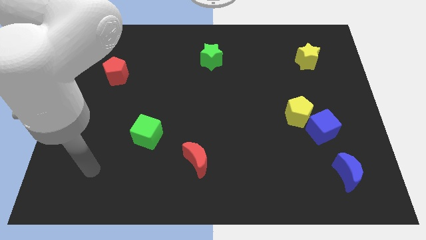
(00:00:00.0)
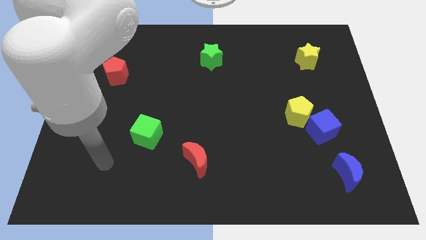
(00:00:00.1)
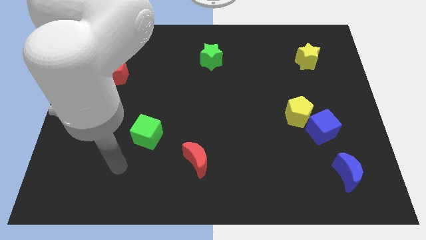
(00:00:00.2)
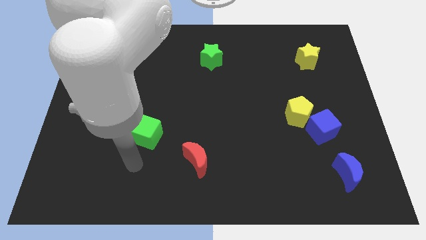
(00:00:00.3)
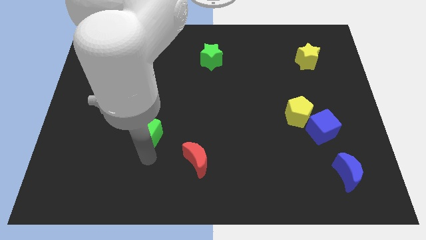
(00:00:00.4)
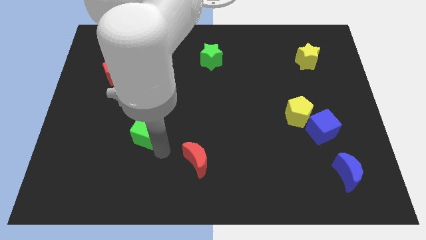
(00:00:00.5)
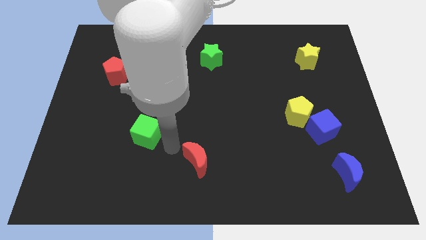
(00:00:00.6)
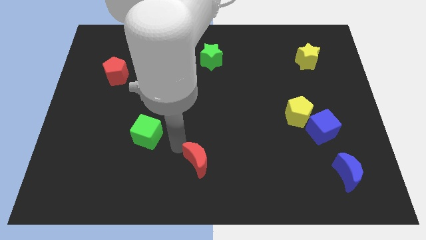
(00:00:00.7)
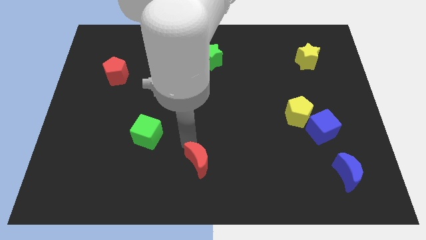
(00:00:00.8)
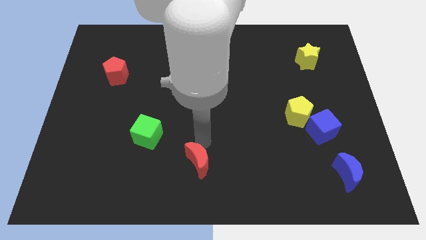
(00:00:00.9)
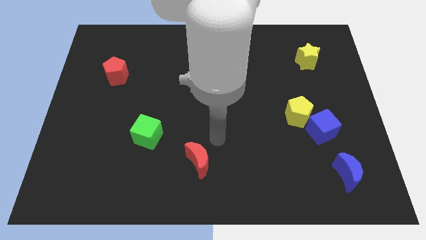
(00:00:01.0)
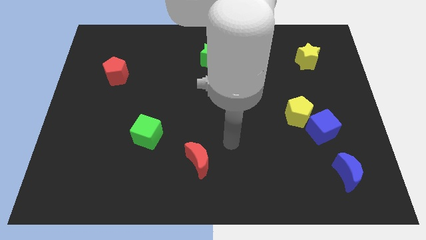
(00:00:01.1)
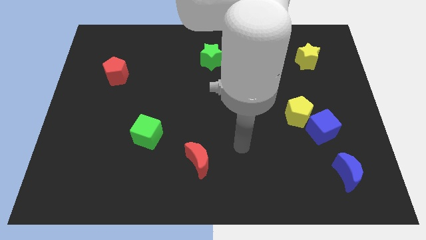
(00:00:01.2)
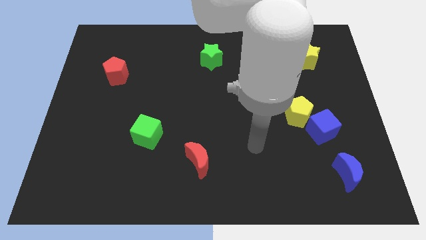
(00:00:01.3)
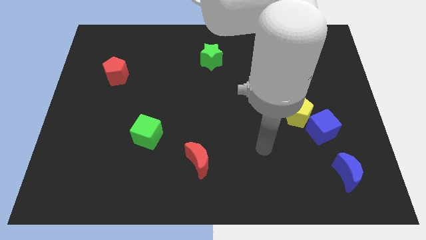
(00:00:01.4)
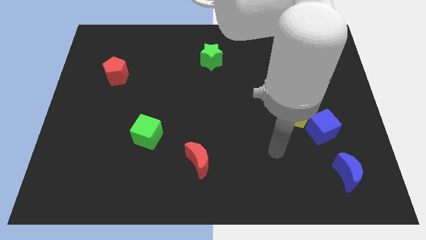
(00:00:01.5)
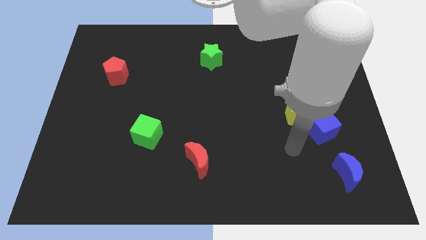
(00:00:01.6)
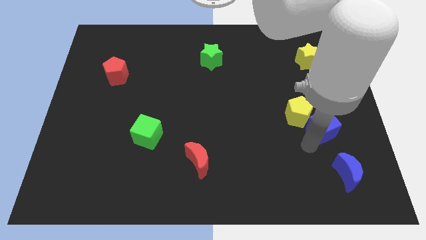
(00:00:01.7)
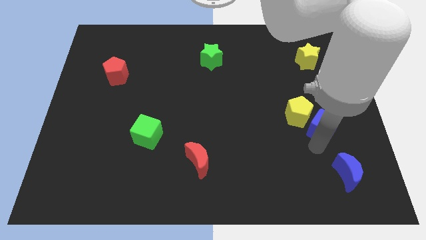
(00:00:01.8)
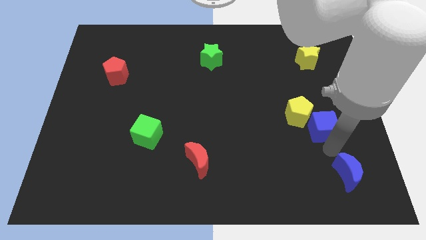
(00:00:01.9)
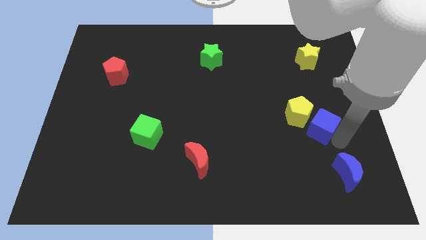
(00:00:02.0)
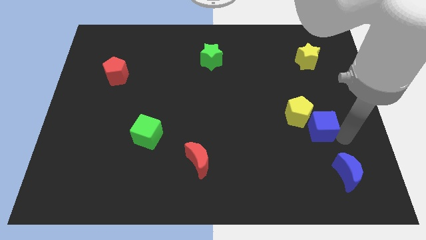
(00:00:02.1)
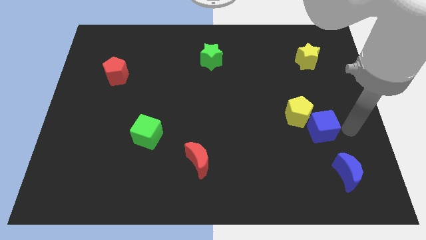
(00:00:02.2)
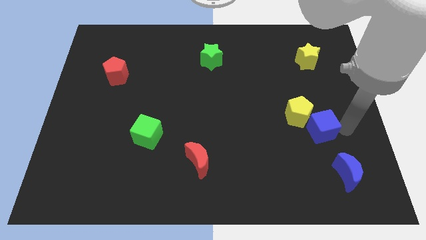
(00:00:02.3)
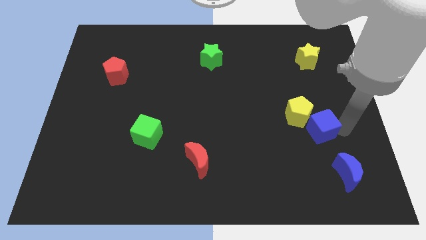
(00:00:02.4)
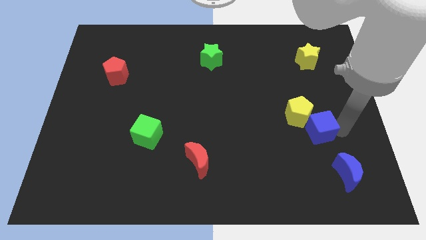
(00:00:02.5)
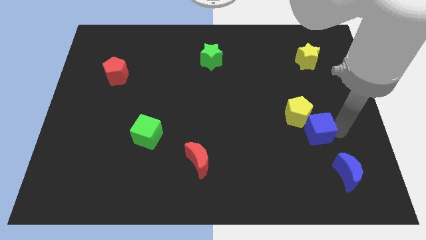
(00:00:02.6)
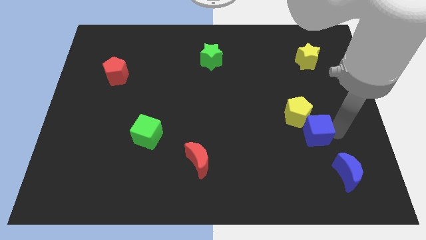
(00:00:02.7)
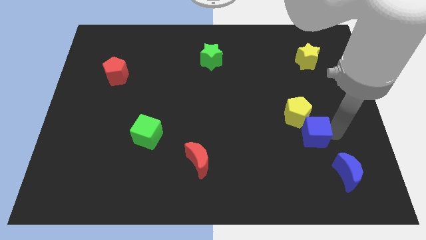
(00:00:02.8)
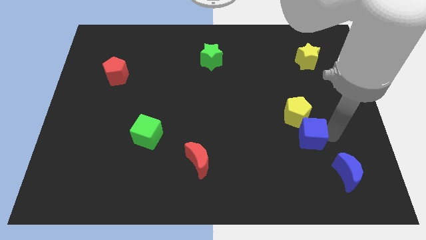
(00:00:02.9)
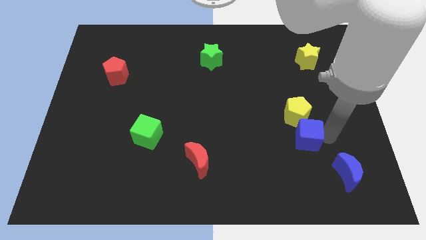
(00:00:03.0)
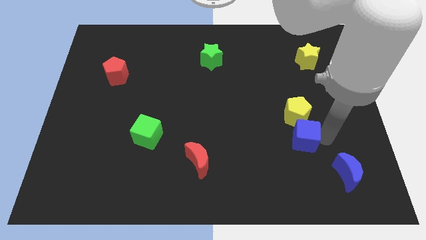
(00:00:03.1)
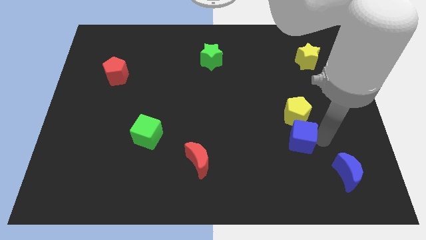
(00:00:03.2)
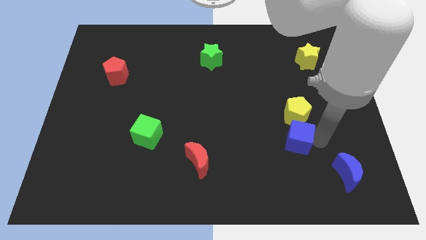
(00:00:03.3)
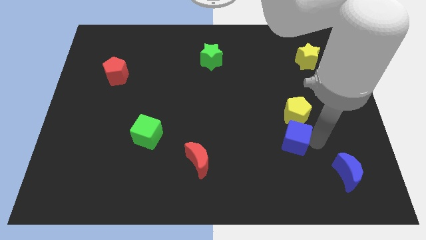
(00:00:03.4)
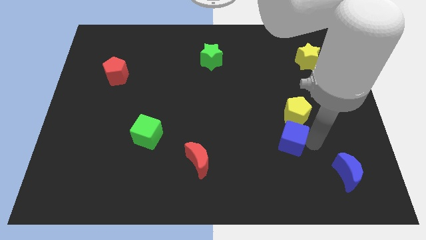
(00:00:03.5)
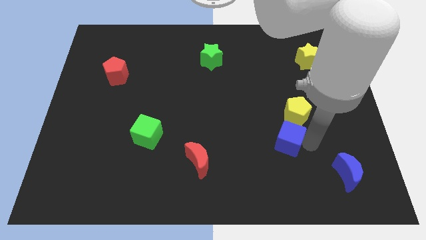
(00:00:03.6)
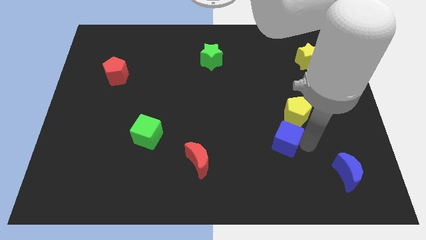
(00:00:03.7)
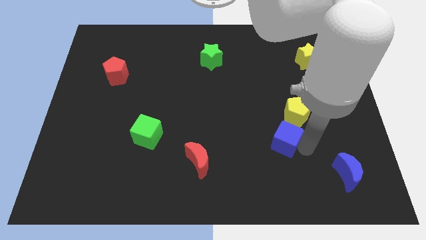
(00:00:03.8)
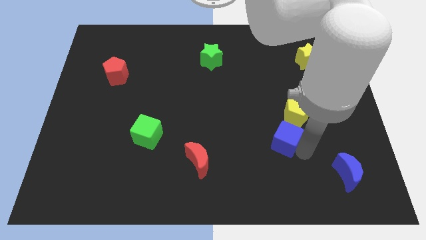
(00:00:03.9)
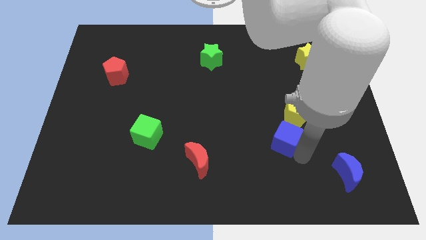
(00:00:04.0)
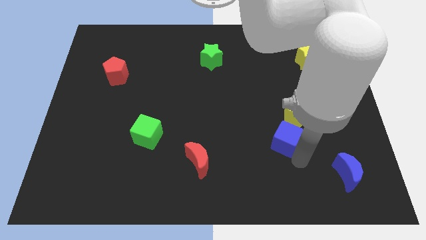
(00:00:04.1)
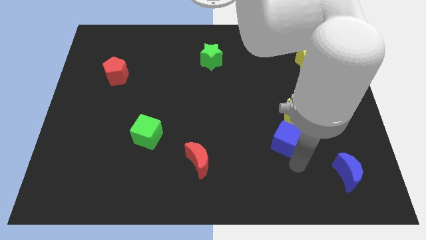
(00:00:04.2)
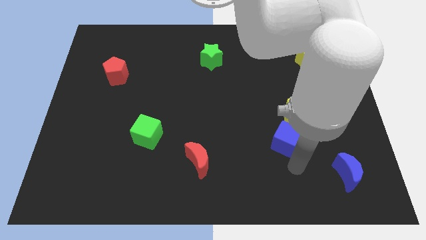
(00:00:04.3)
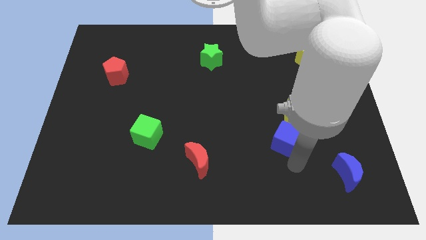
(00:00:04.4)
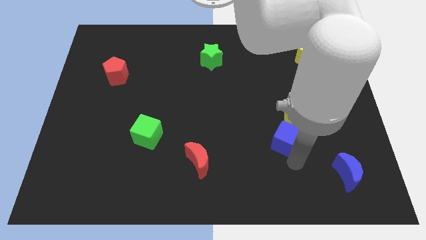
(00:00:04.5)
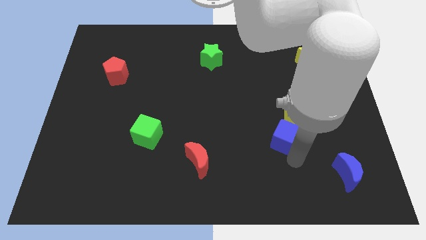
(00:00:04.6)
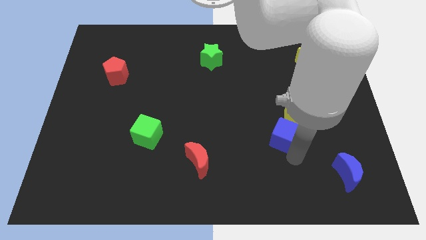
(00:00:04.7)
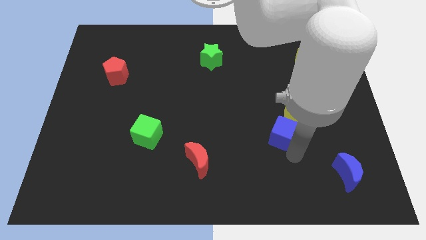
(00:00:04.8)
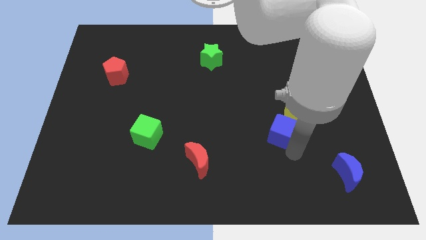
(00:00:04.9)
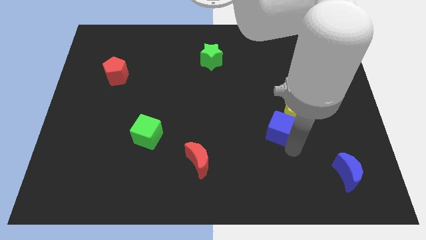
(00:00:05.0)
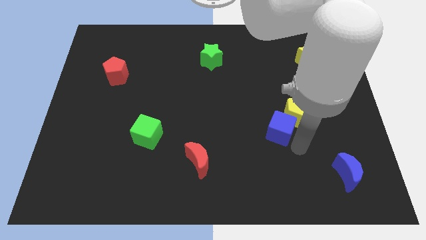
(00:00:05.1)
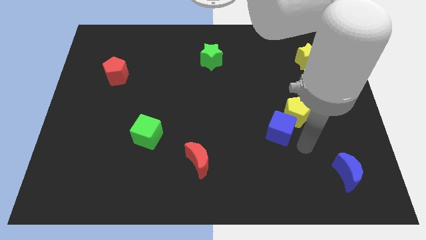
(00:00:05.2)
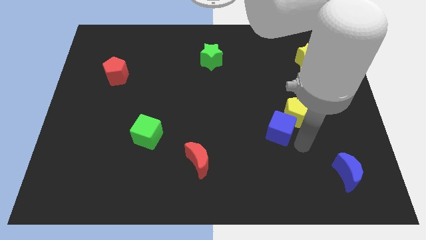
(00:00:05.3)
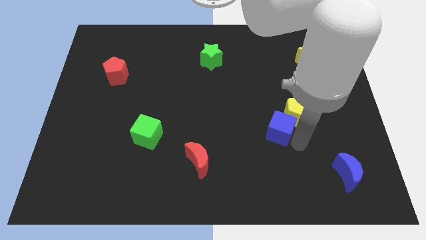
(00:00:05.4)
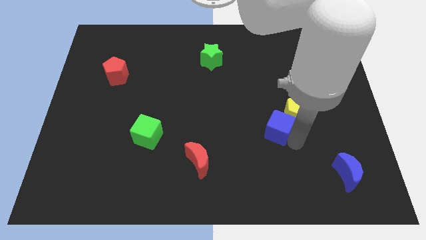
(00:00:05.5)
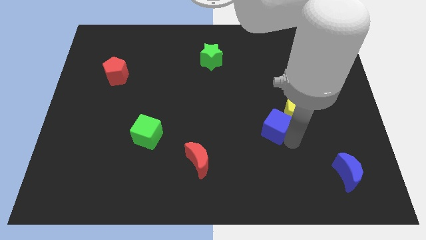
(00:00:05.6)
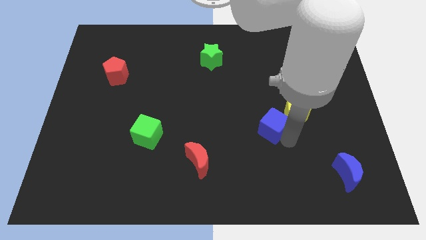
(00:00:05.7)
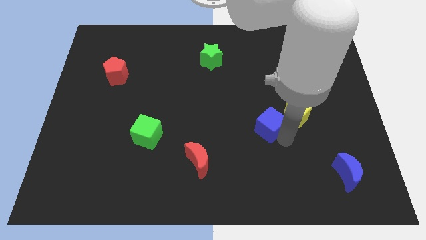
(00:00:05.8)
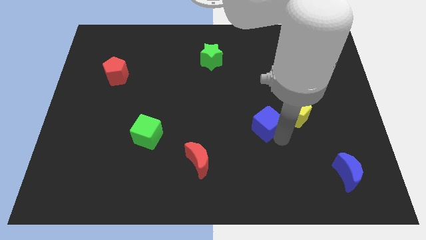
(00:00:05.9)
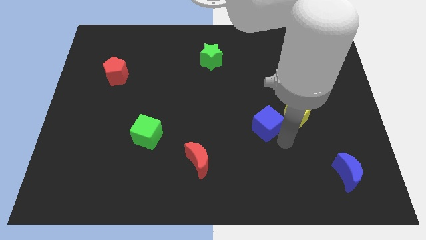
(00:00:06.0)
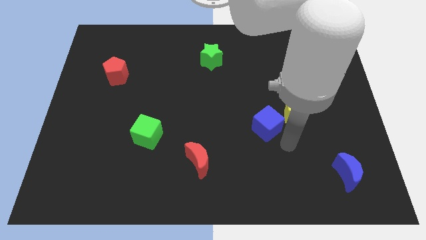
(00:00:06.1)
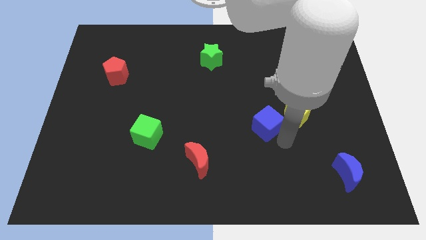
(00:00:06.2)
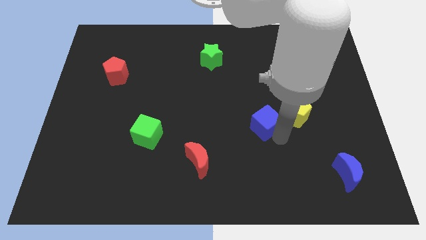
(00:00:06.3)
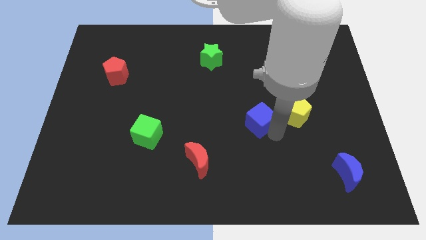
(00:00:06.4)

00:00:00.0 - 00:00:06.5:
put the blue cube to the middle
